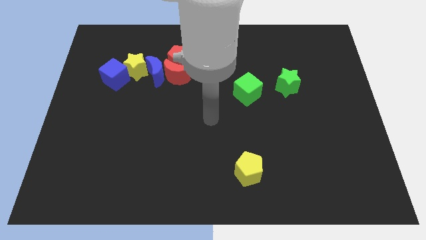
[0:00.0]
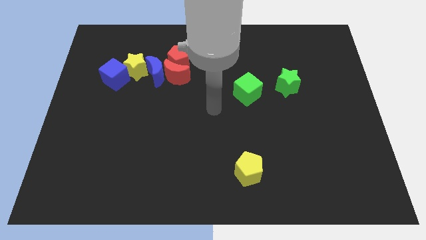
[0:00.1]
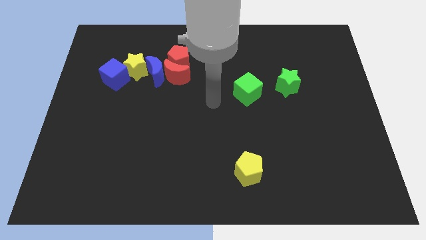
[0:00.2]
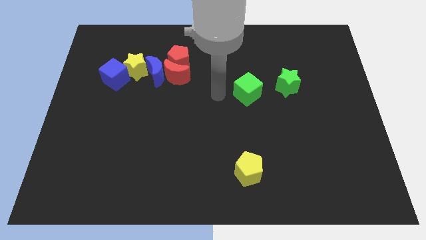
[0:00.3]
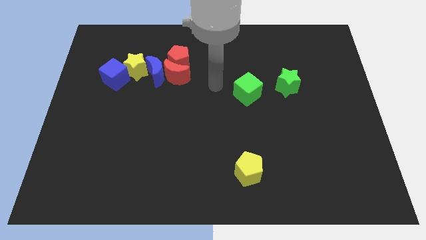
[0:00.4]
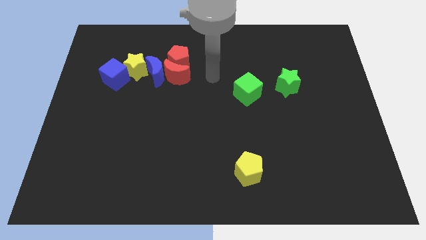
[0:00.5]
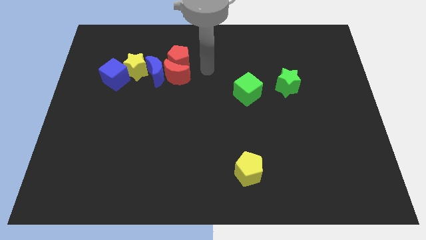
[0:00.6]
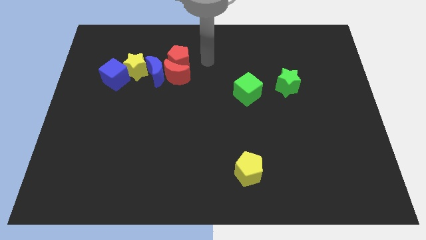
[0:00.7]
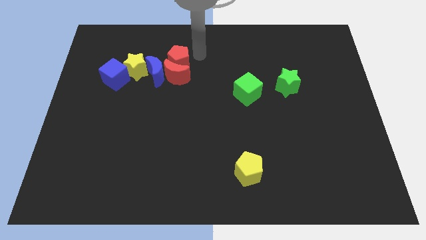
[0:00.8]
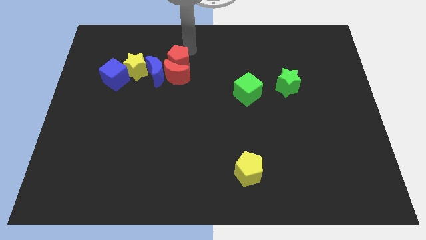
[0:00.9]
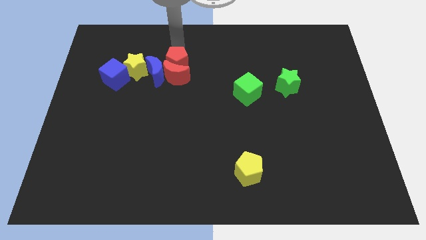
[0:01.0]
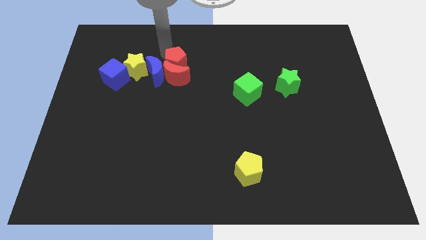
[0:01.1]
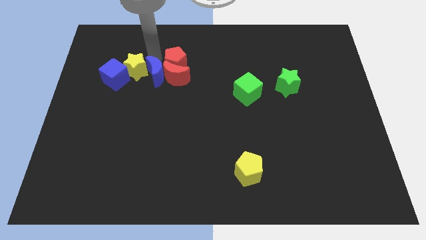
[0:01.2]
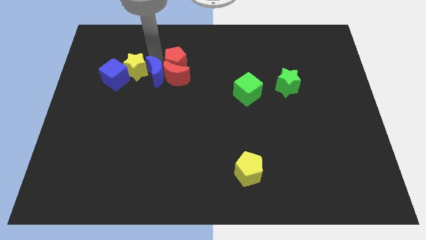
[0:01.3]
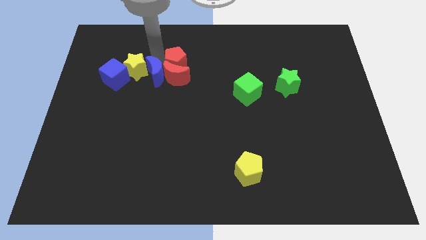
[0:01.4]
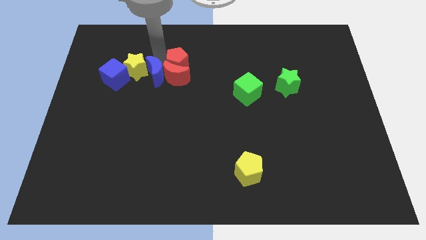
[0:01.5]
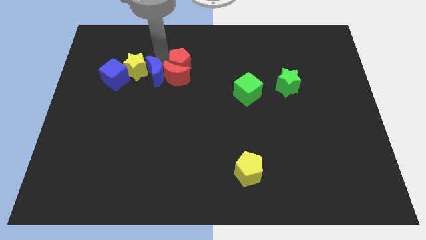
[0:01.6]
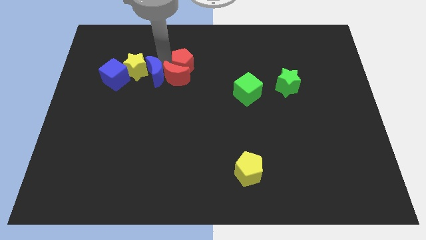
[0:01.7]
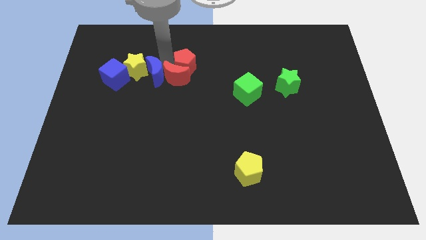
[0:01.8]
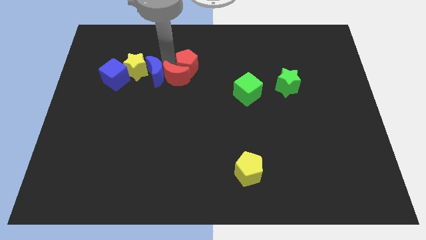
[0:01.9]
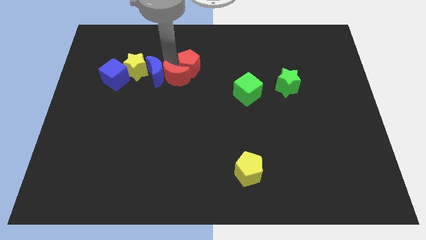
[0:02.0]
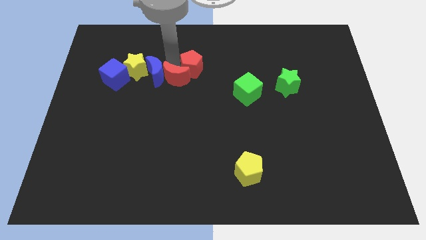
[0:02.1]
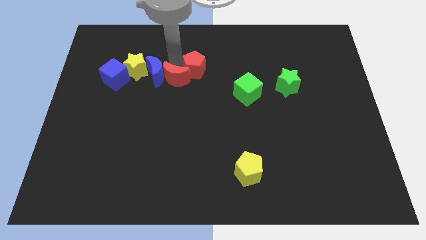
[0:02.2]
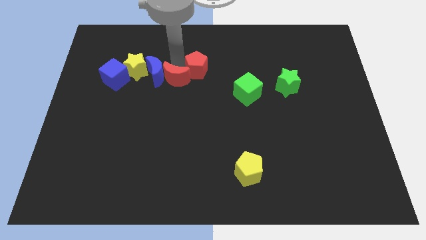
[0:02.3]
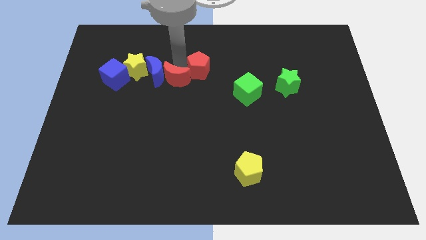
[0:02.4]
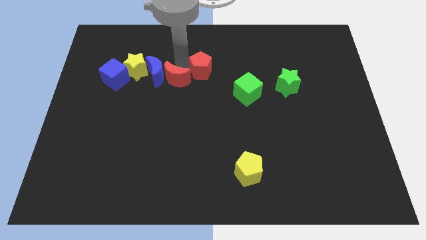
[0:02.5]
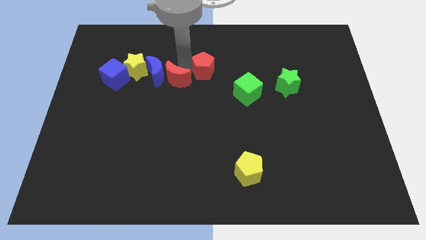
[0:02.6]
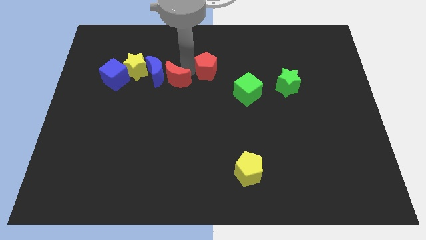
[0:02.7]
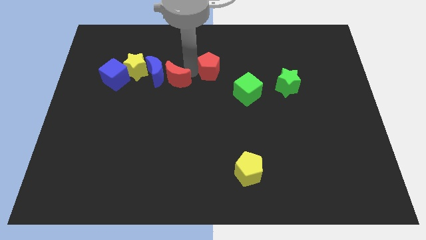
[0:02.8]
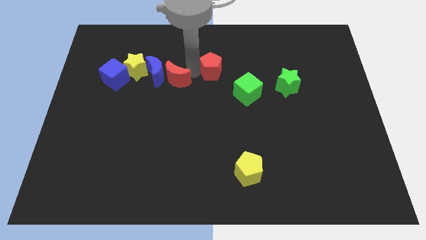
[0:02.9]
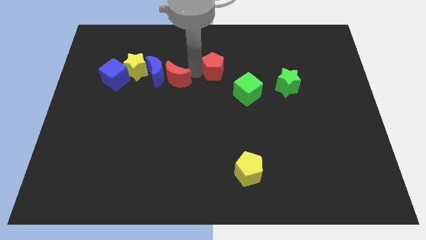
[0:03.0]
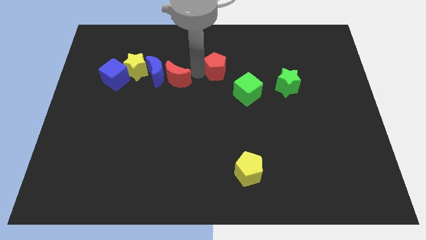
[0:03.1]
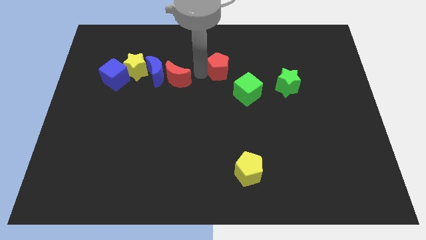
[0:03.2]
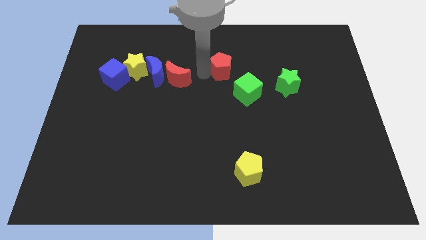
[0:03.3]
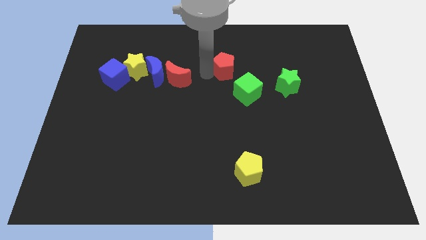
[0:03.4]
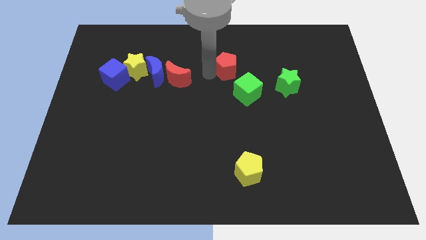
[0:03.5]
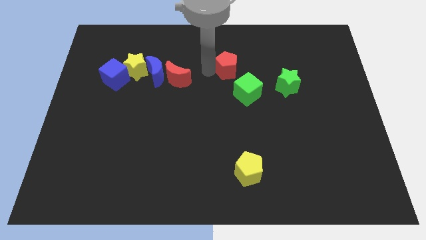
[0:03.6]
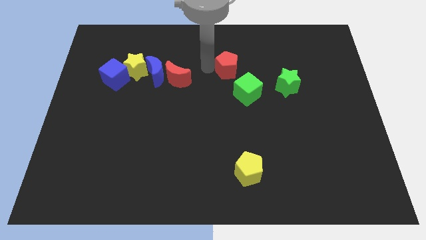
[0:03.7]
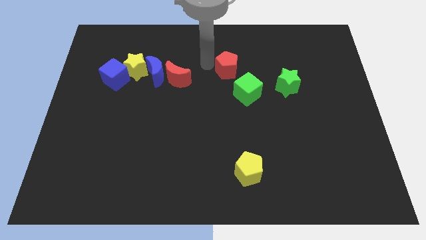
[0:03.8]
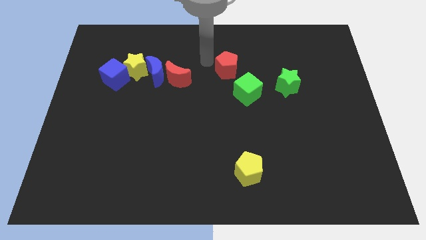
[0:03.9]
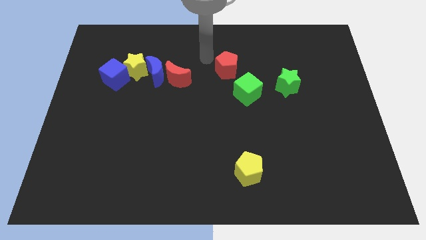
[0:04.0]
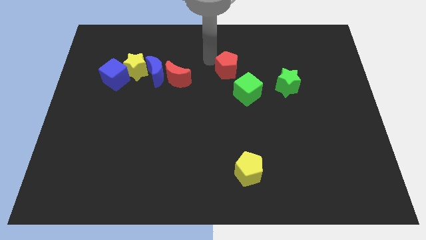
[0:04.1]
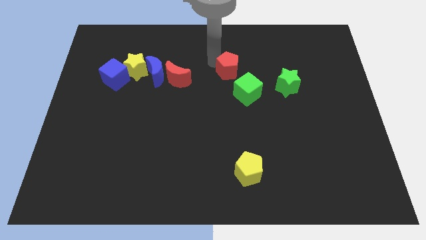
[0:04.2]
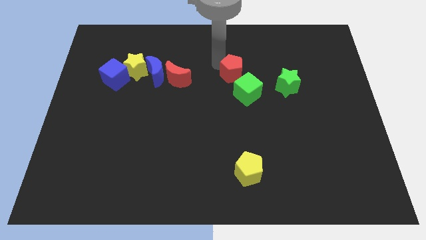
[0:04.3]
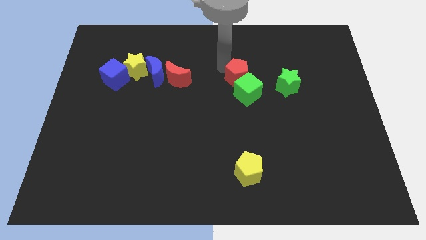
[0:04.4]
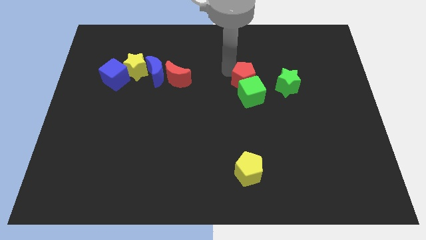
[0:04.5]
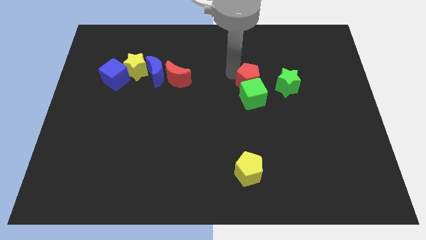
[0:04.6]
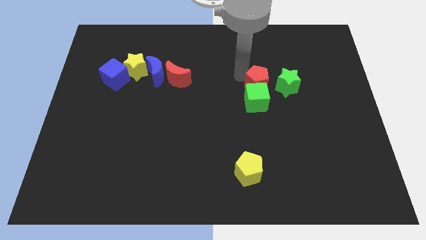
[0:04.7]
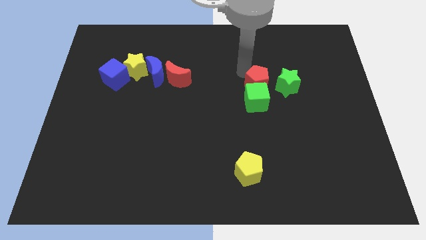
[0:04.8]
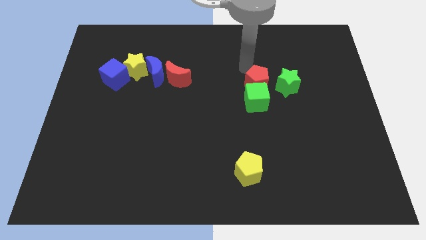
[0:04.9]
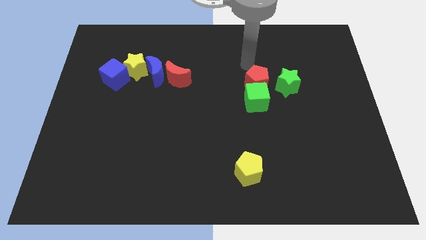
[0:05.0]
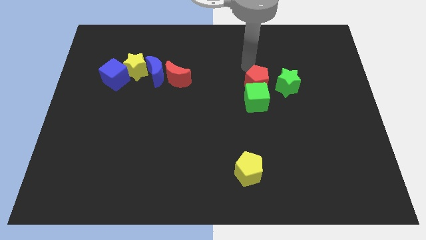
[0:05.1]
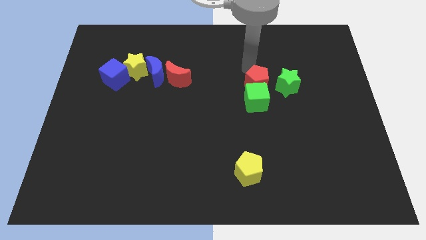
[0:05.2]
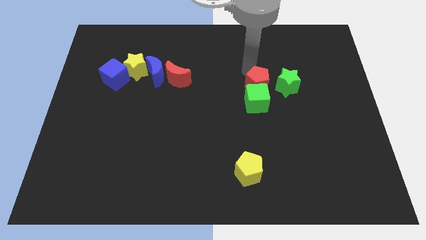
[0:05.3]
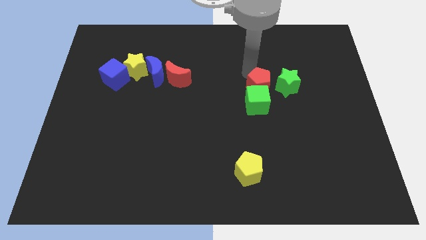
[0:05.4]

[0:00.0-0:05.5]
slide the red pentagon diagonally down and to the left of the green star

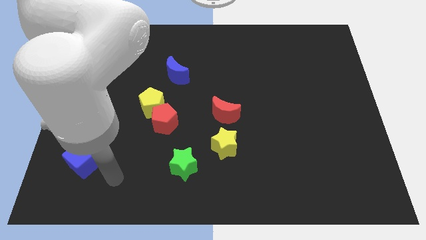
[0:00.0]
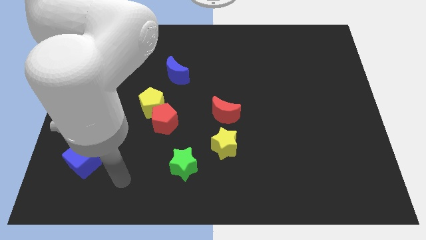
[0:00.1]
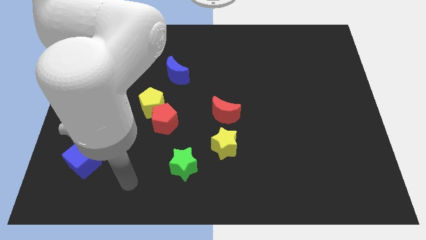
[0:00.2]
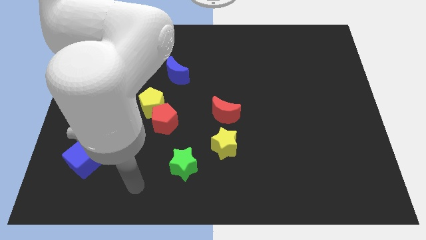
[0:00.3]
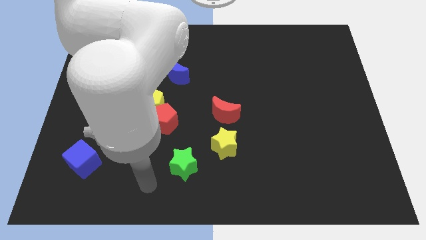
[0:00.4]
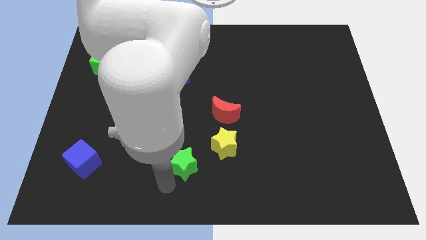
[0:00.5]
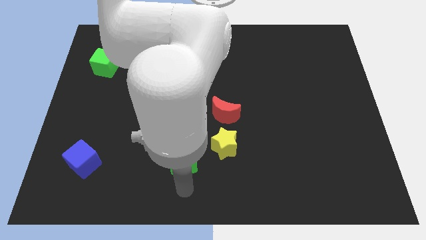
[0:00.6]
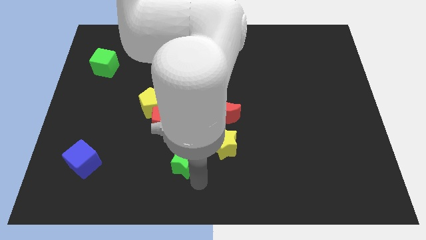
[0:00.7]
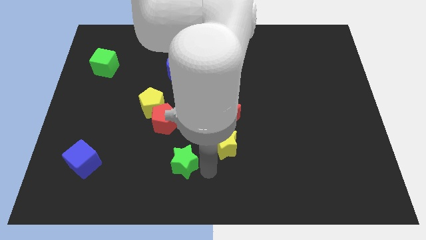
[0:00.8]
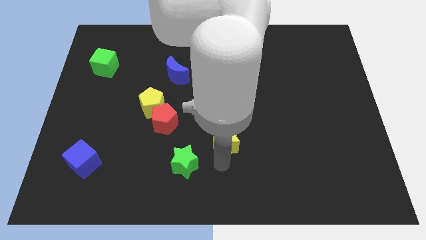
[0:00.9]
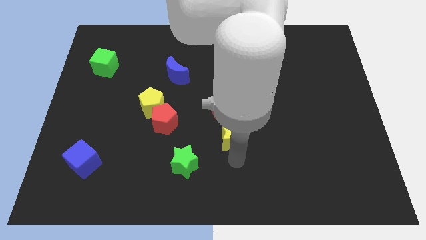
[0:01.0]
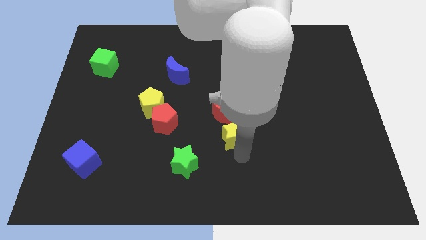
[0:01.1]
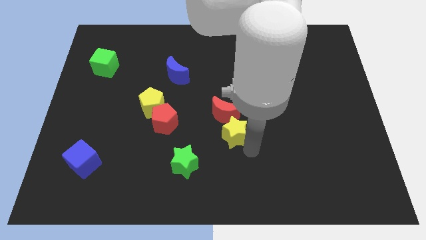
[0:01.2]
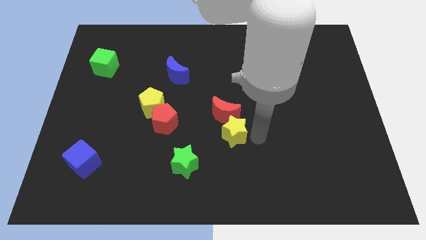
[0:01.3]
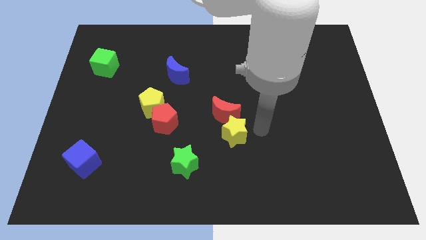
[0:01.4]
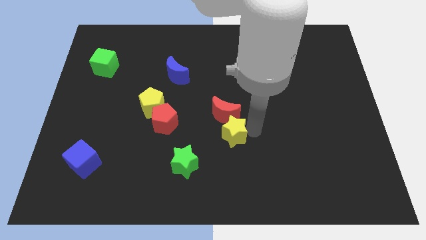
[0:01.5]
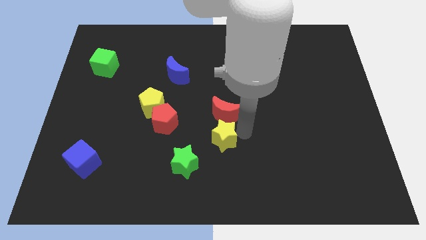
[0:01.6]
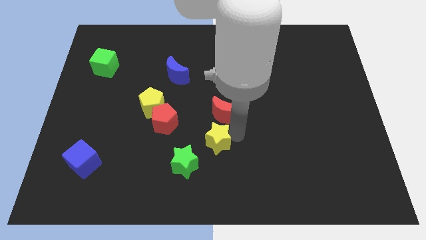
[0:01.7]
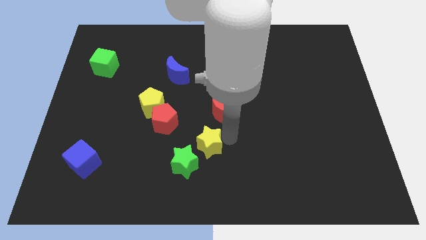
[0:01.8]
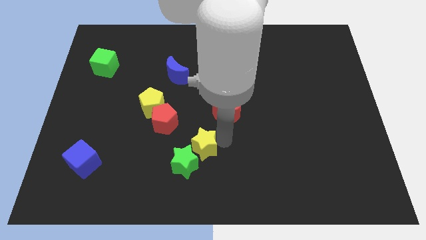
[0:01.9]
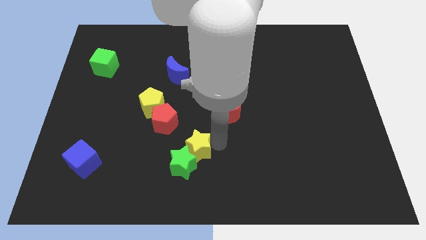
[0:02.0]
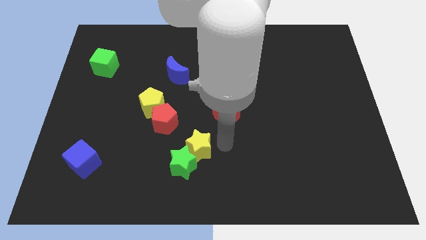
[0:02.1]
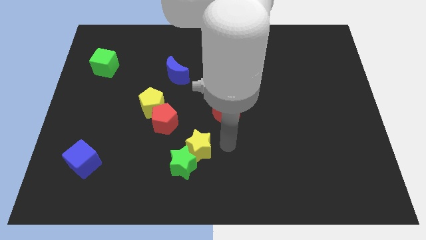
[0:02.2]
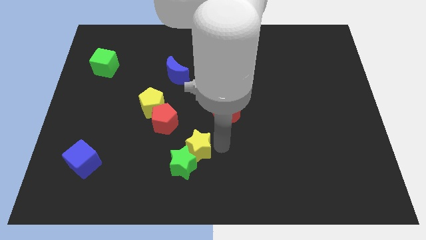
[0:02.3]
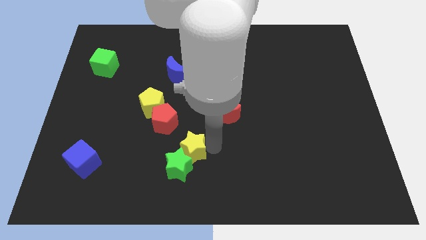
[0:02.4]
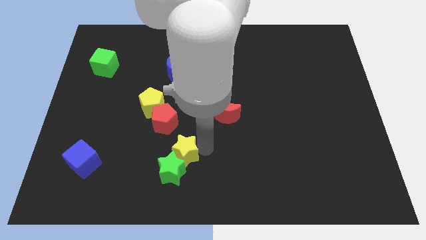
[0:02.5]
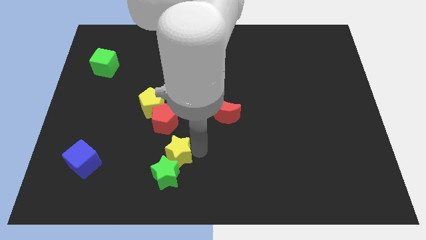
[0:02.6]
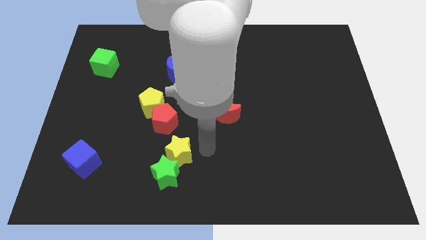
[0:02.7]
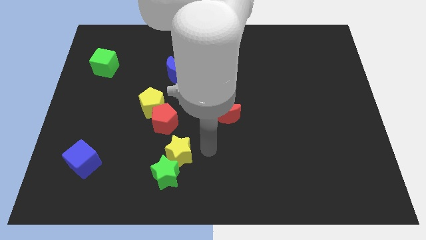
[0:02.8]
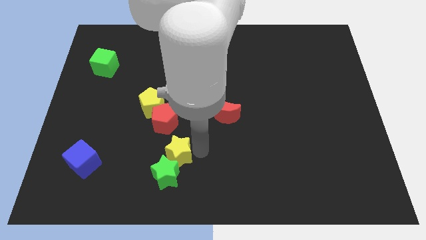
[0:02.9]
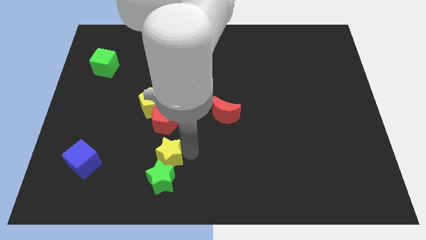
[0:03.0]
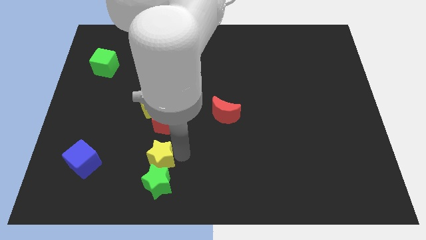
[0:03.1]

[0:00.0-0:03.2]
move the yellow star to the right of the blue cube
